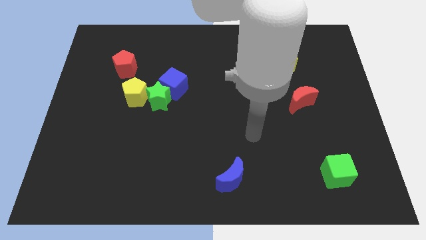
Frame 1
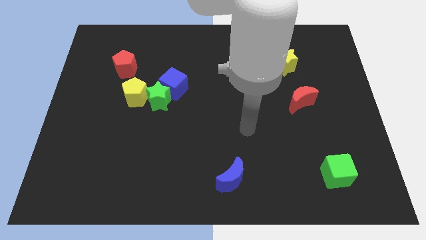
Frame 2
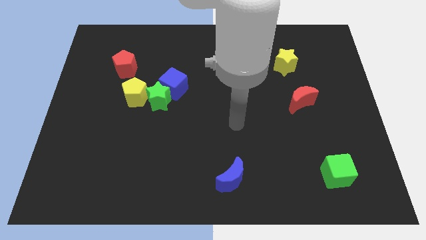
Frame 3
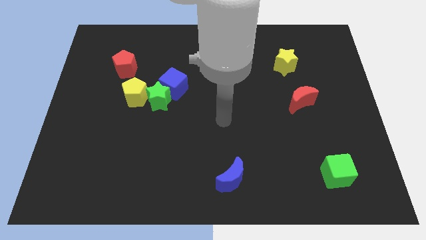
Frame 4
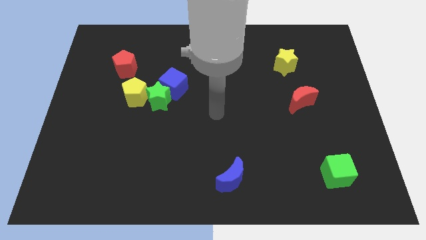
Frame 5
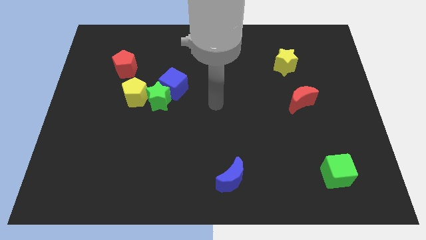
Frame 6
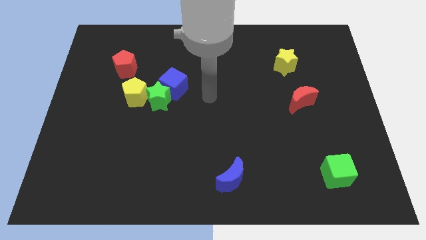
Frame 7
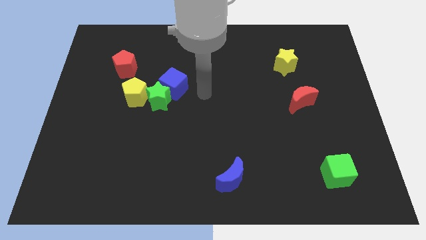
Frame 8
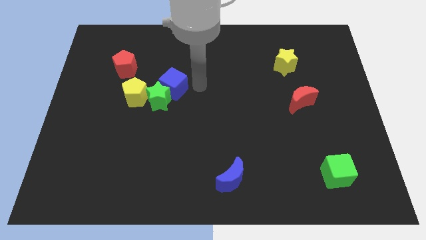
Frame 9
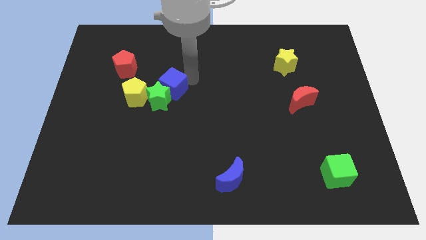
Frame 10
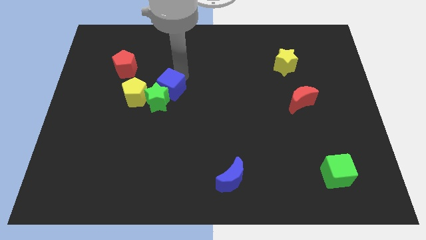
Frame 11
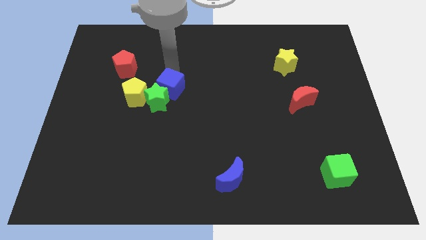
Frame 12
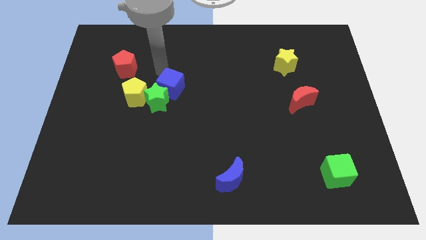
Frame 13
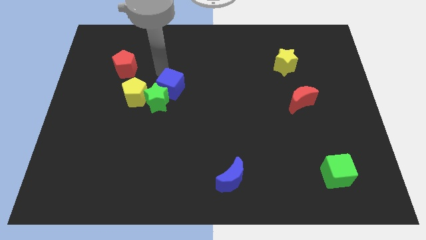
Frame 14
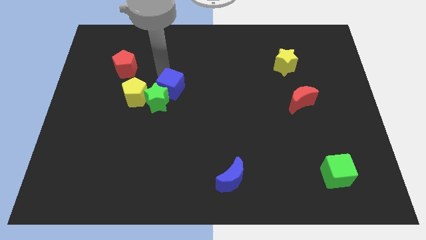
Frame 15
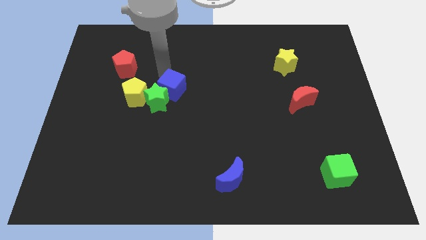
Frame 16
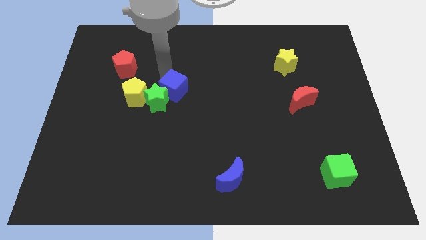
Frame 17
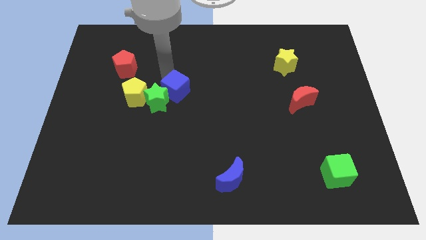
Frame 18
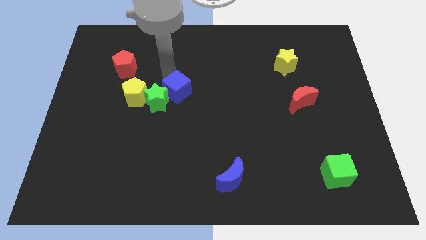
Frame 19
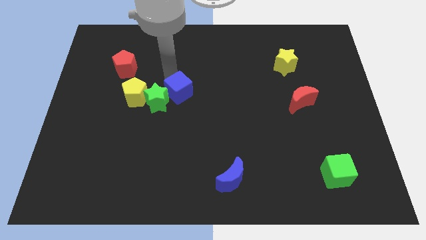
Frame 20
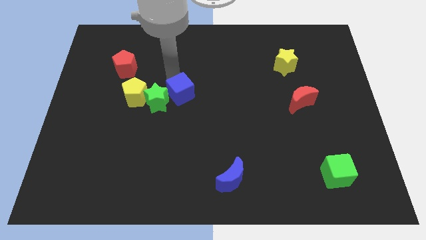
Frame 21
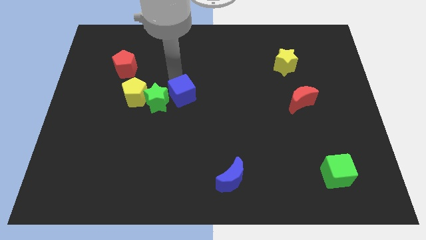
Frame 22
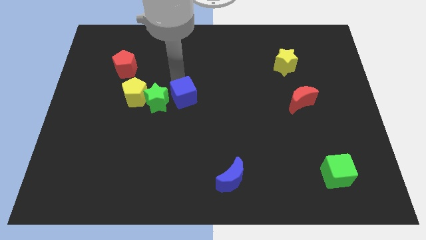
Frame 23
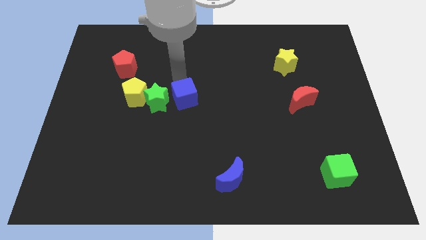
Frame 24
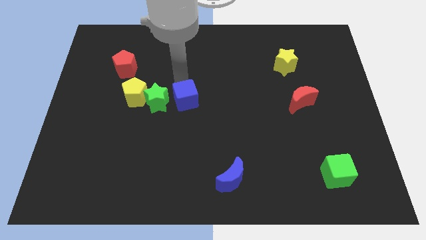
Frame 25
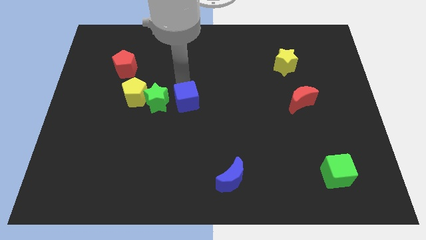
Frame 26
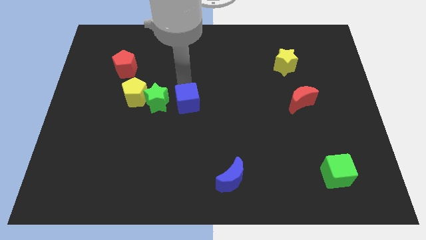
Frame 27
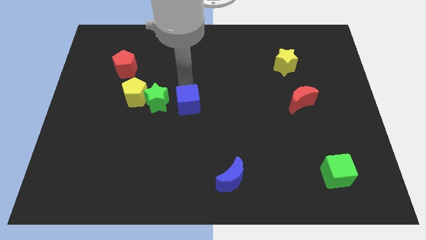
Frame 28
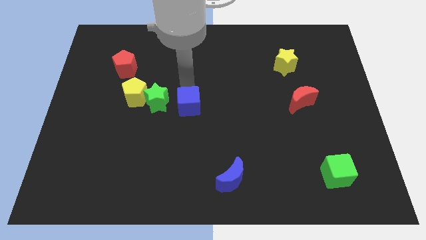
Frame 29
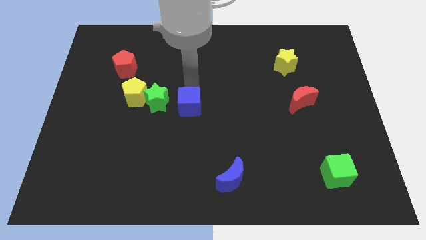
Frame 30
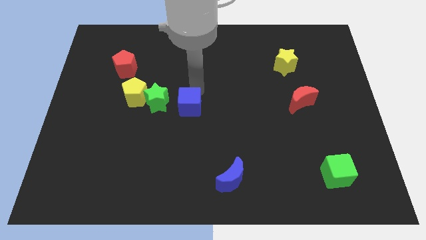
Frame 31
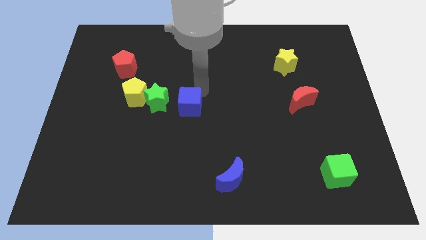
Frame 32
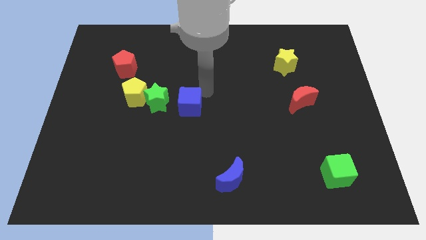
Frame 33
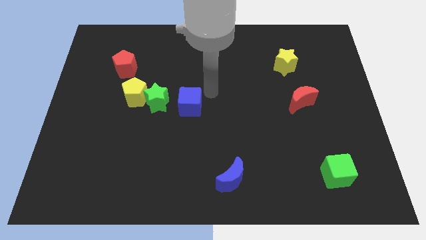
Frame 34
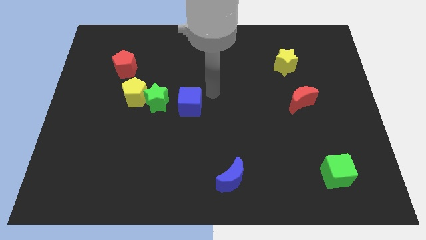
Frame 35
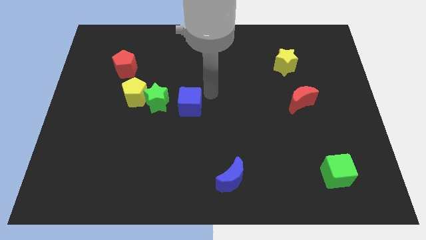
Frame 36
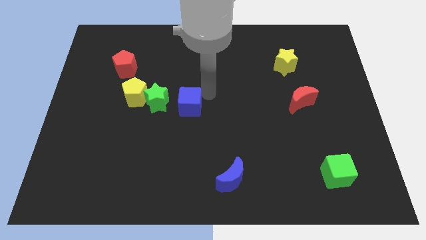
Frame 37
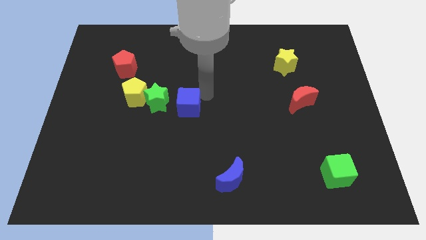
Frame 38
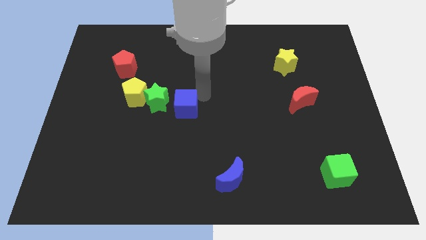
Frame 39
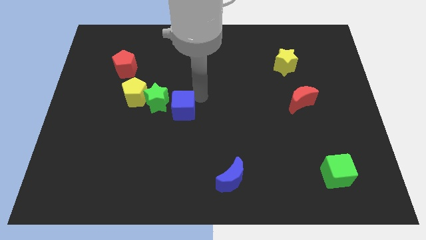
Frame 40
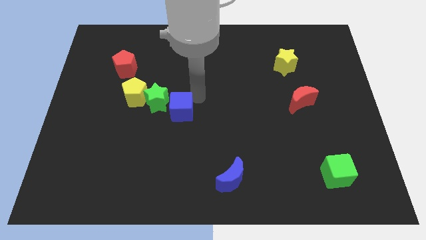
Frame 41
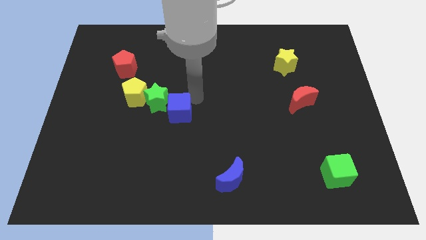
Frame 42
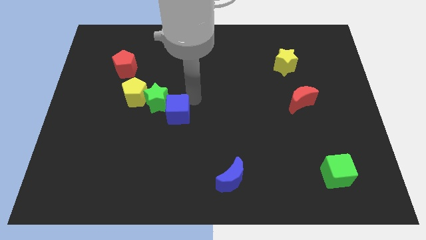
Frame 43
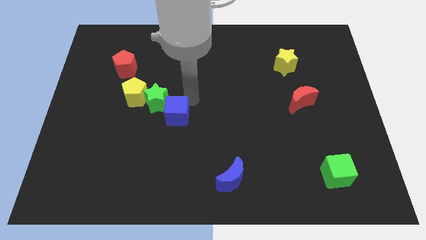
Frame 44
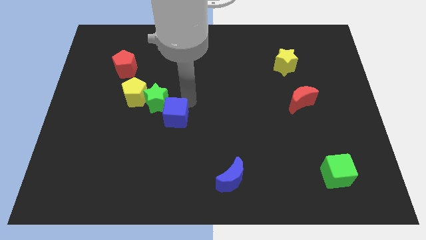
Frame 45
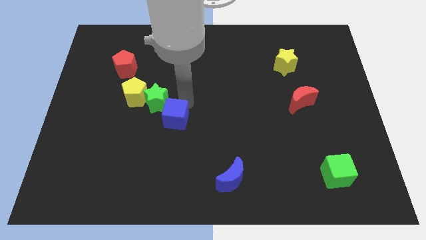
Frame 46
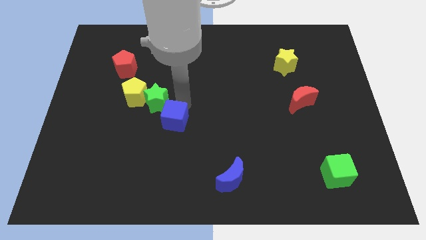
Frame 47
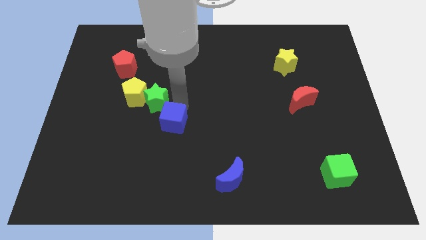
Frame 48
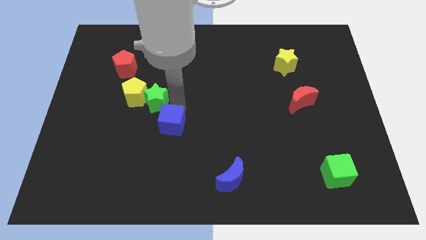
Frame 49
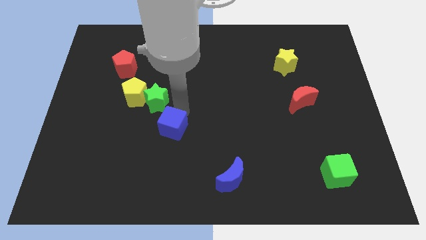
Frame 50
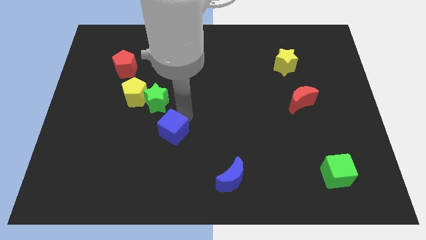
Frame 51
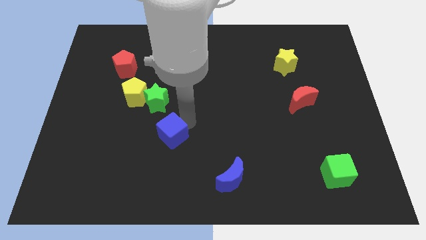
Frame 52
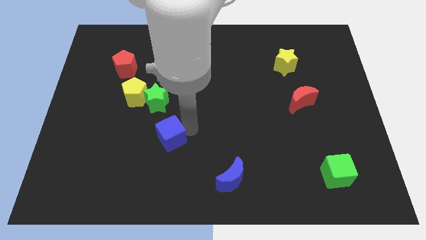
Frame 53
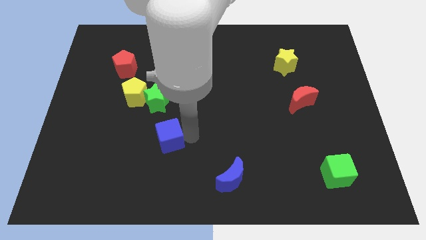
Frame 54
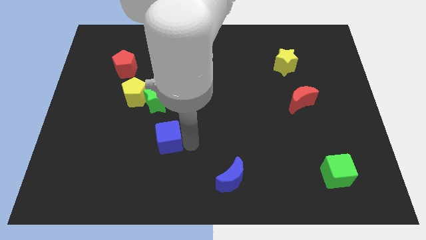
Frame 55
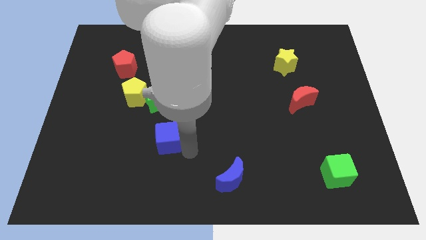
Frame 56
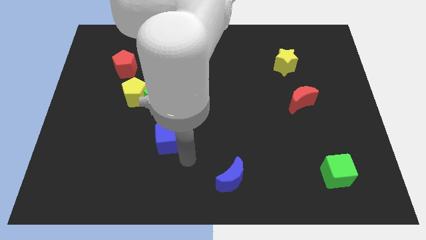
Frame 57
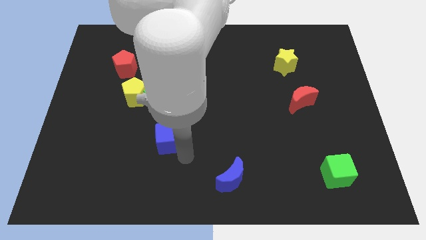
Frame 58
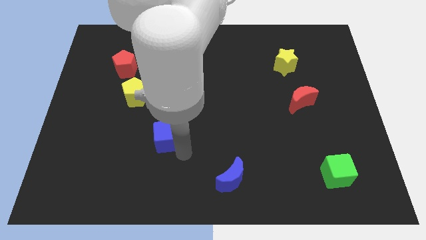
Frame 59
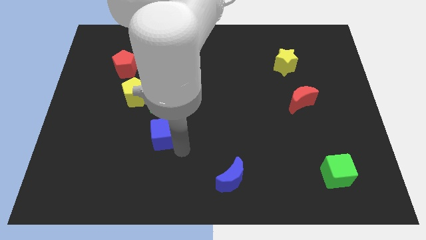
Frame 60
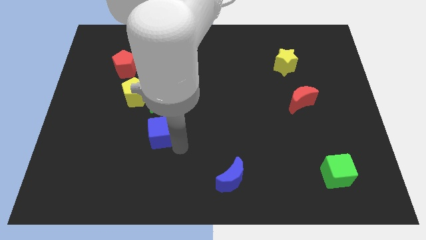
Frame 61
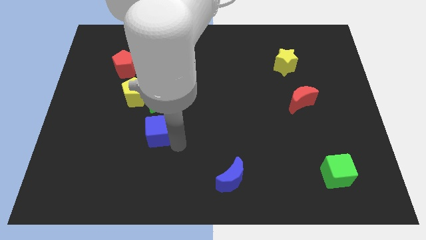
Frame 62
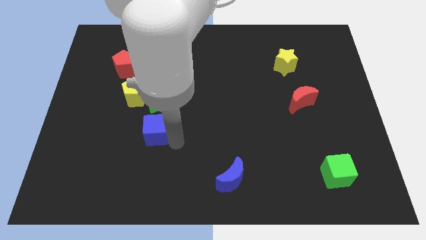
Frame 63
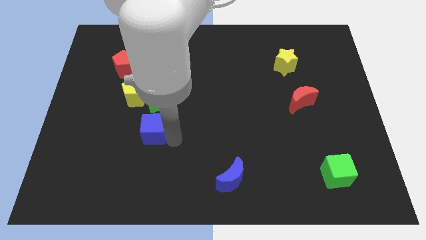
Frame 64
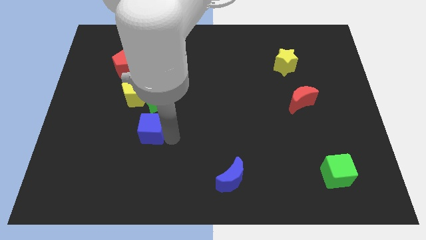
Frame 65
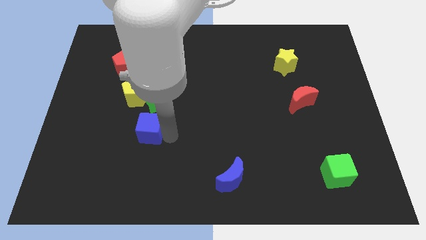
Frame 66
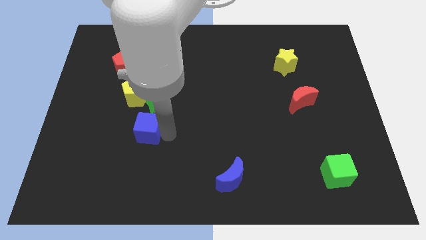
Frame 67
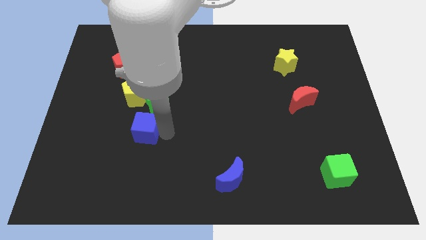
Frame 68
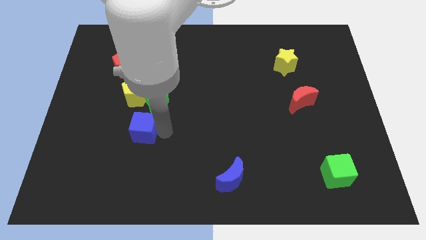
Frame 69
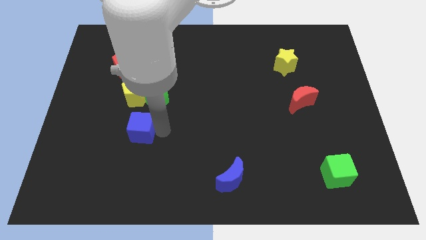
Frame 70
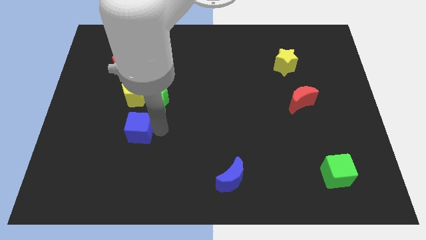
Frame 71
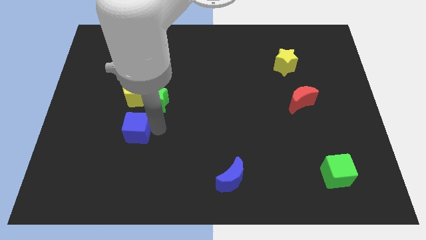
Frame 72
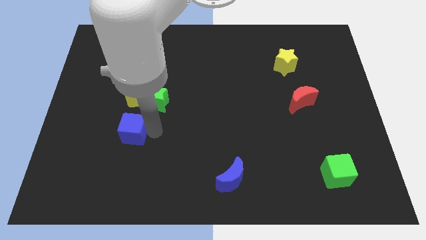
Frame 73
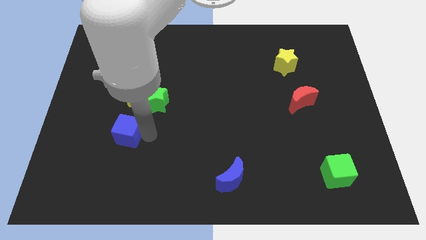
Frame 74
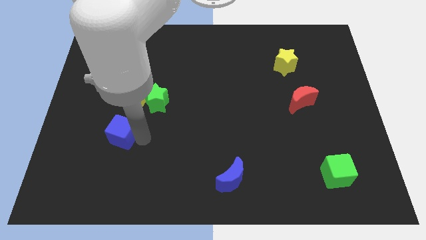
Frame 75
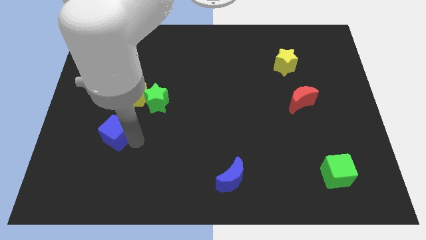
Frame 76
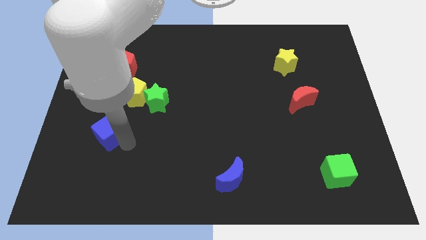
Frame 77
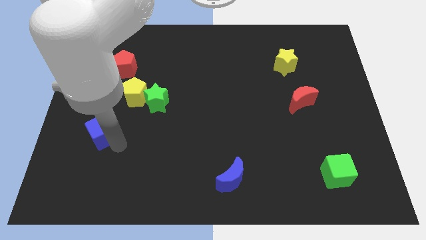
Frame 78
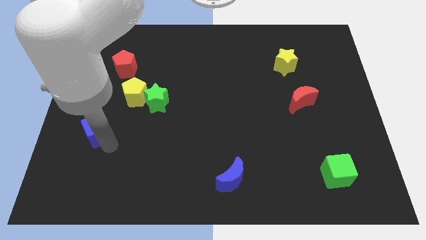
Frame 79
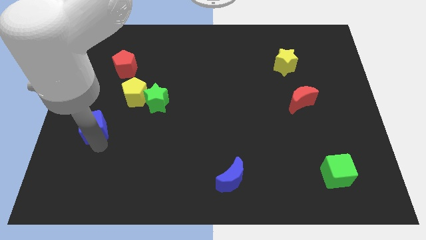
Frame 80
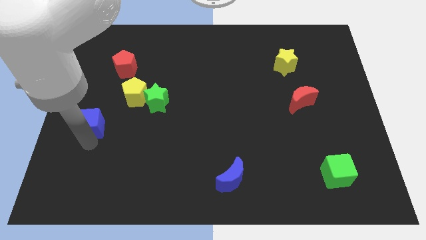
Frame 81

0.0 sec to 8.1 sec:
push the blue cube to the left side
